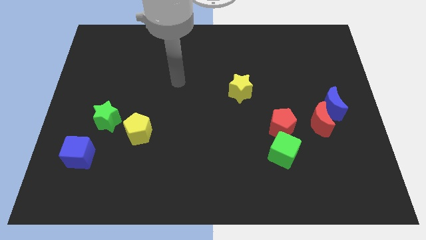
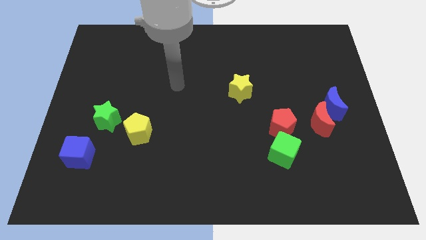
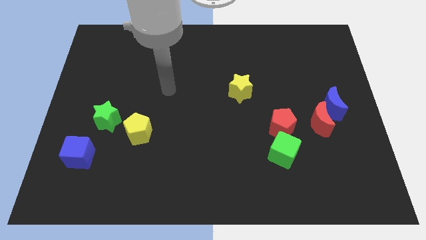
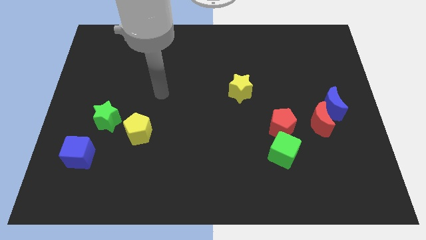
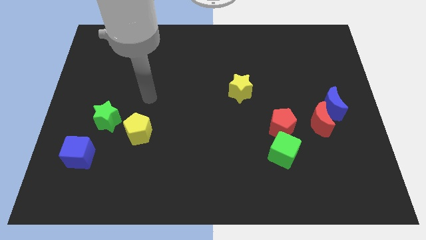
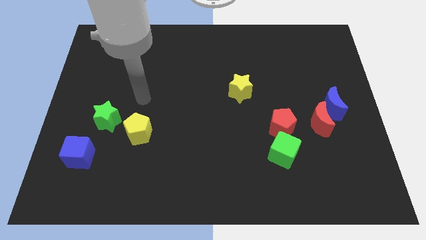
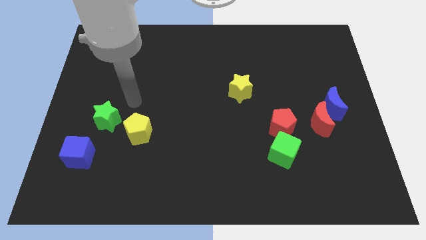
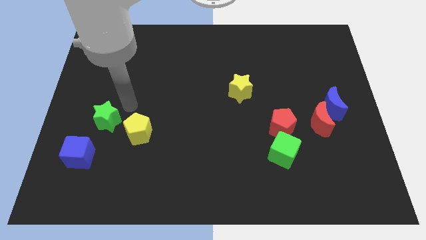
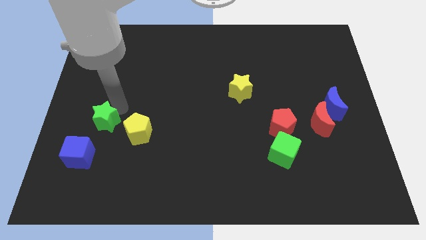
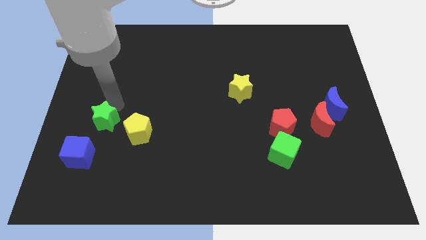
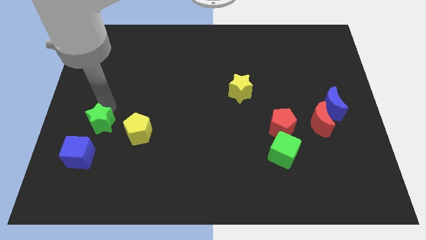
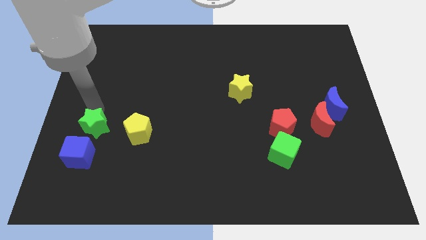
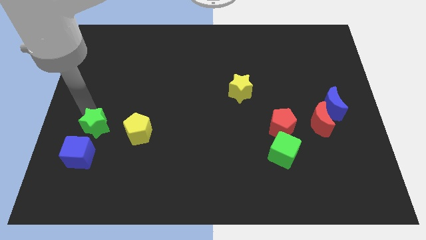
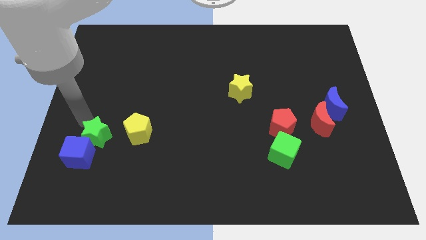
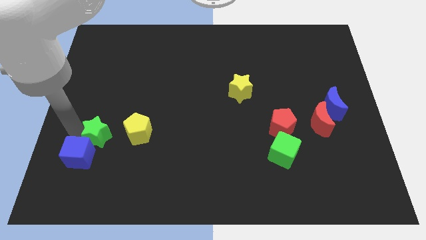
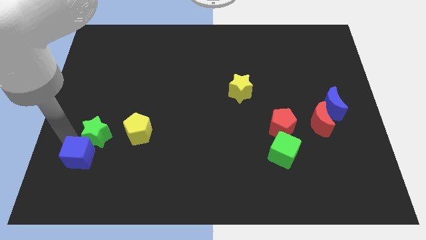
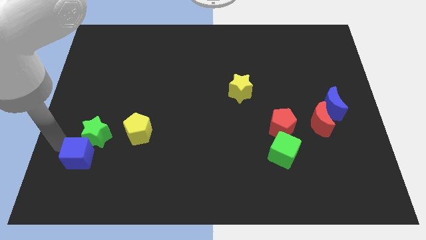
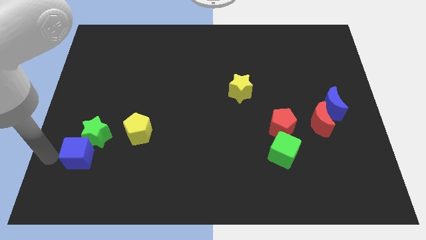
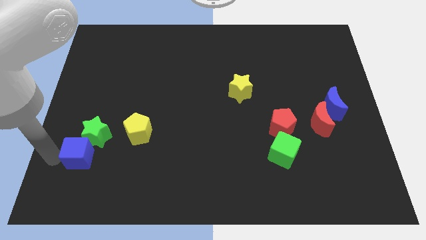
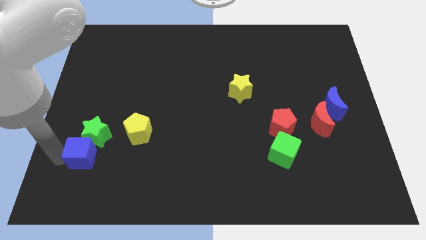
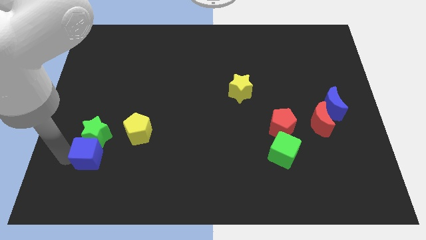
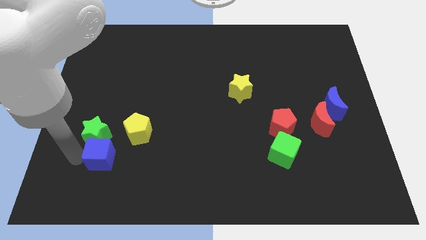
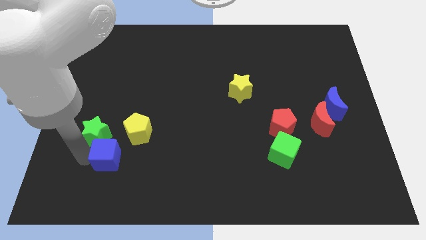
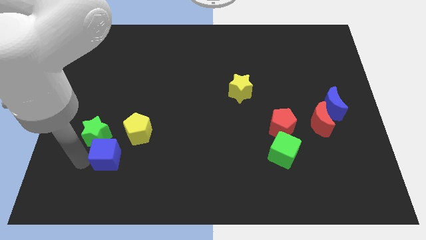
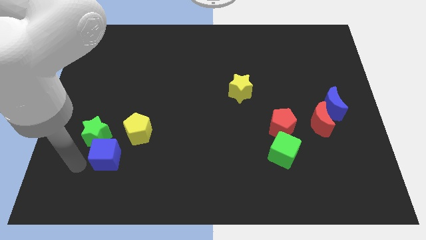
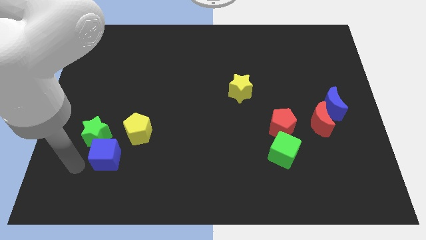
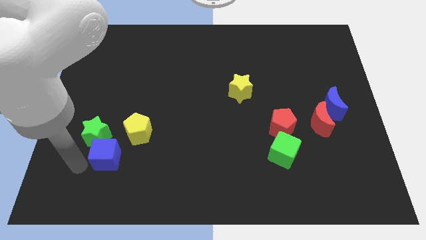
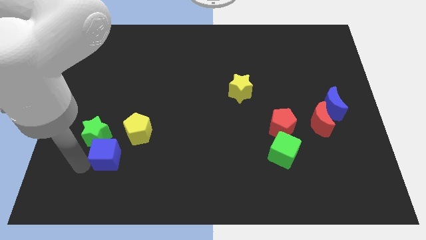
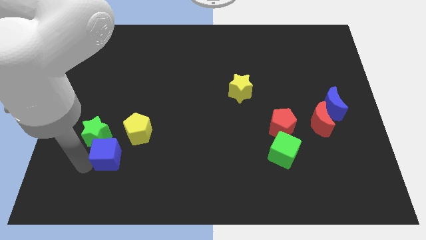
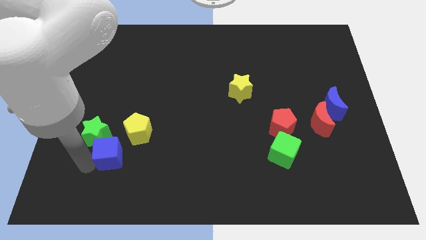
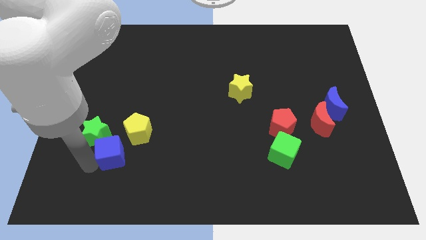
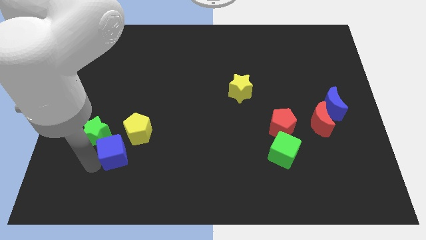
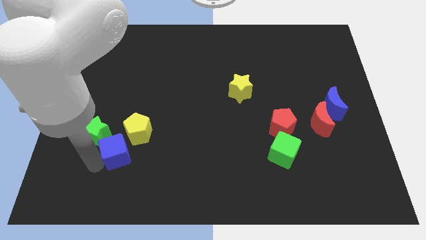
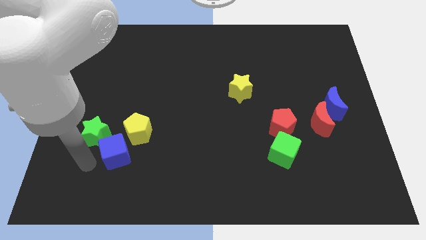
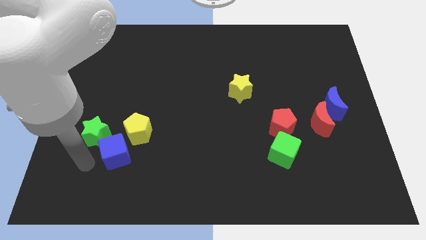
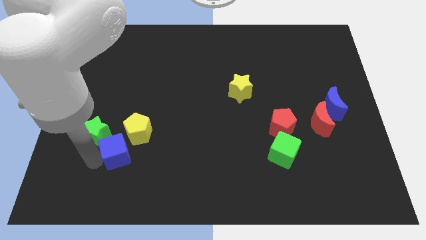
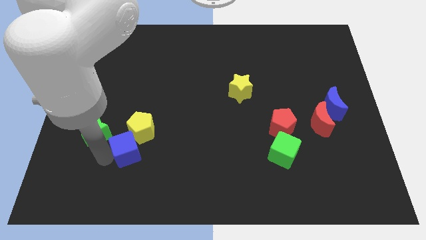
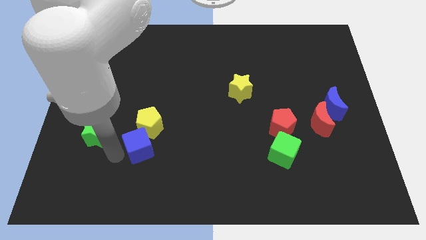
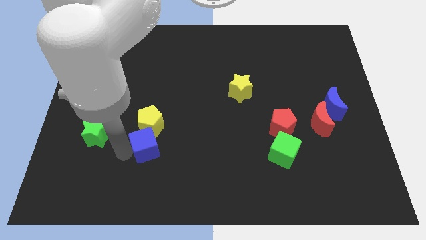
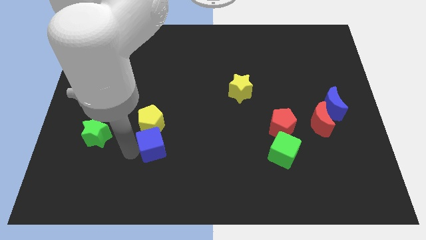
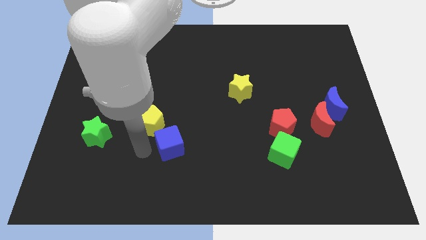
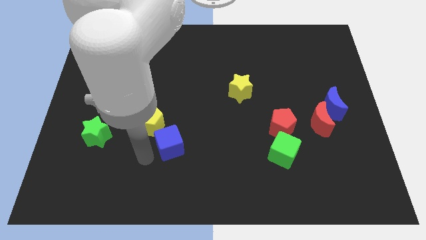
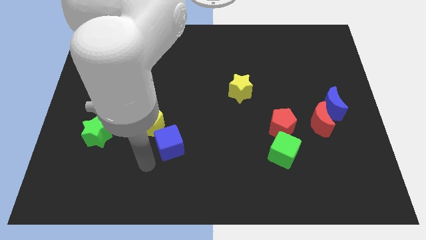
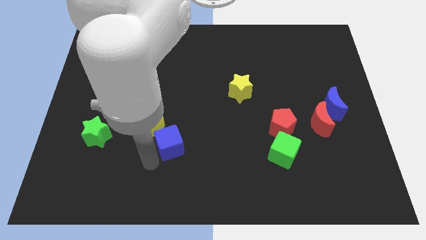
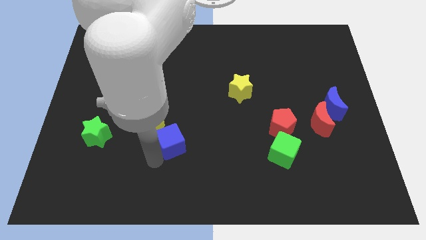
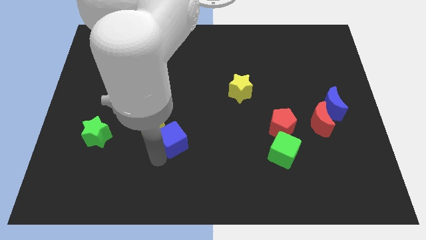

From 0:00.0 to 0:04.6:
slide the blue cube to the right of the yellow pentagon

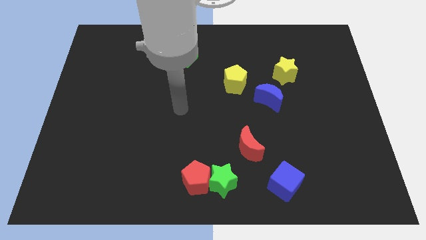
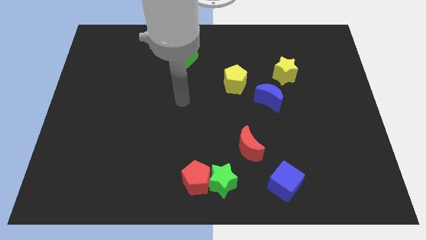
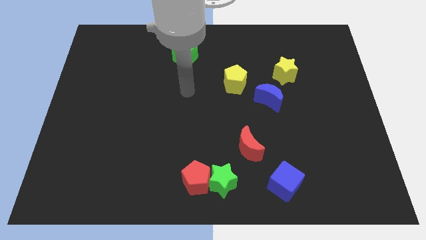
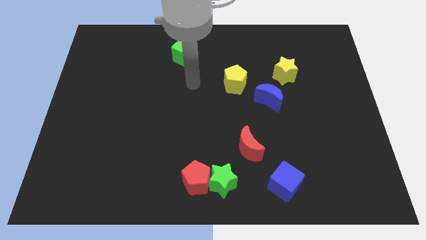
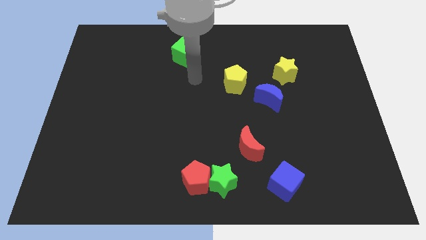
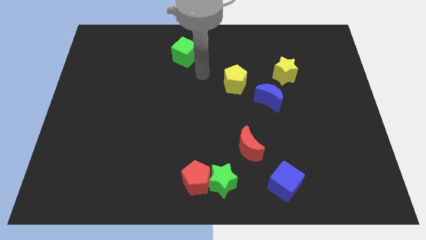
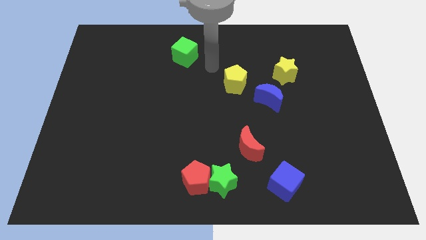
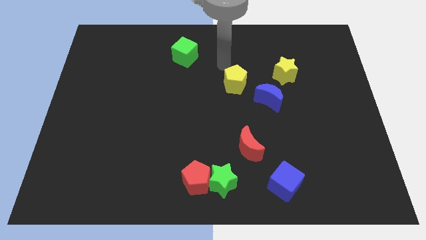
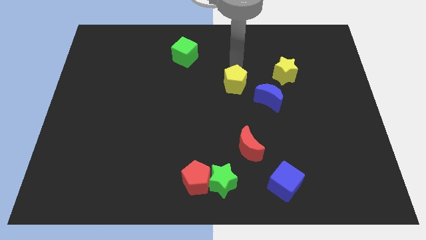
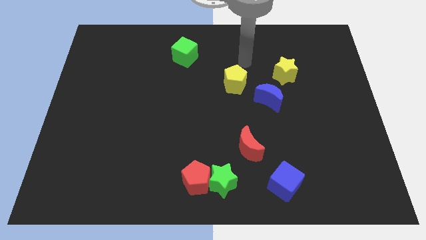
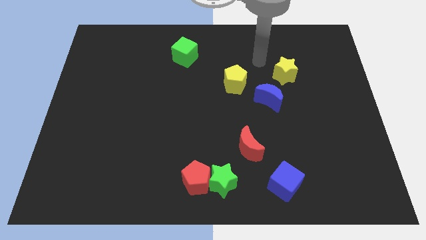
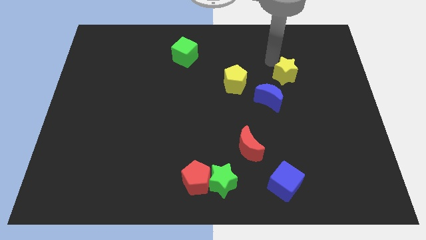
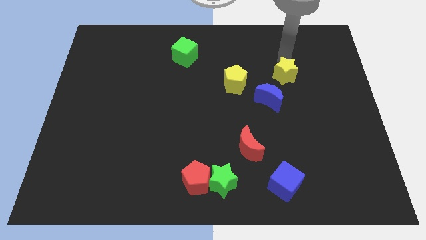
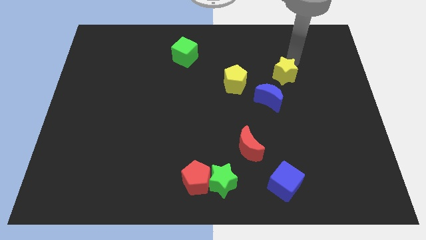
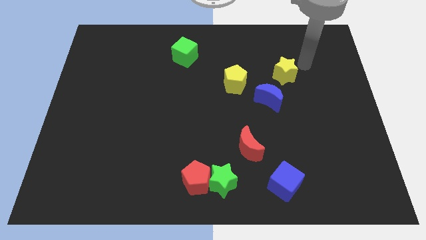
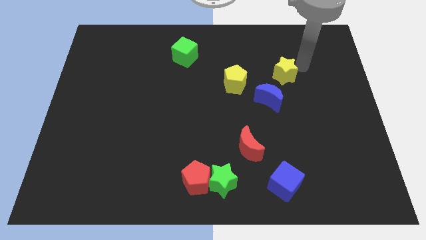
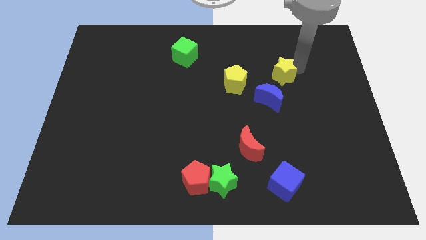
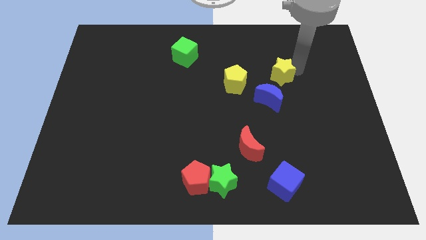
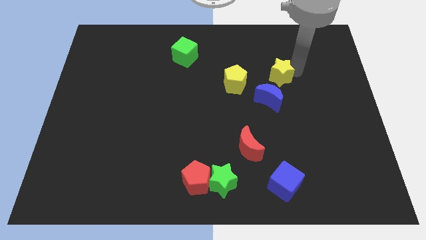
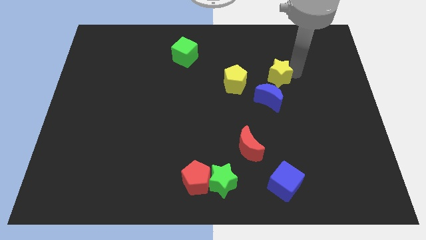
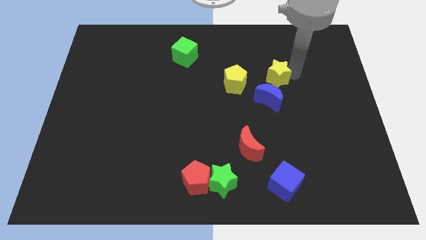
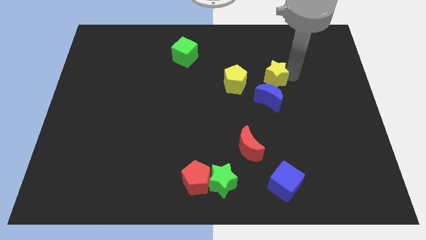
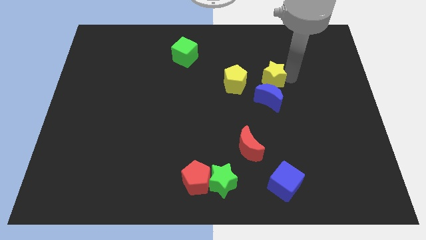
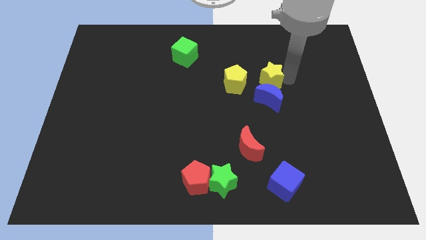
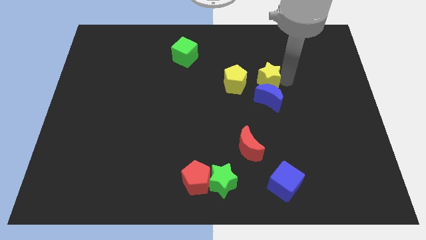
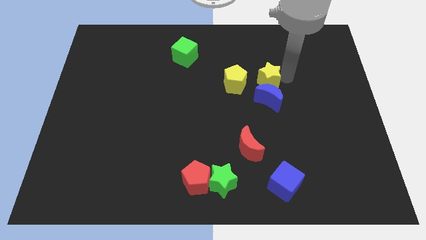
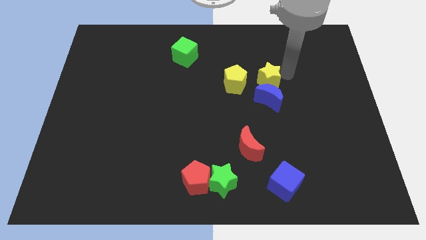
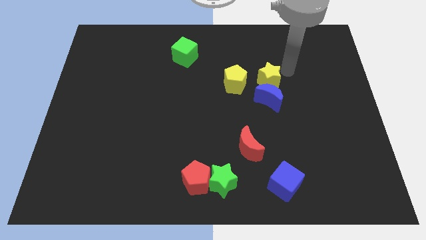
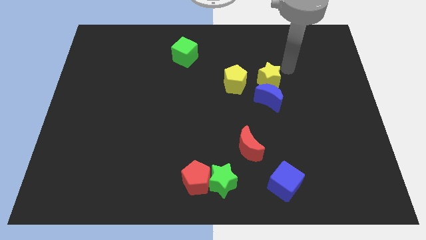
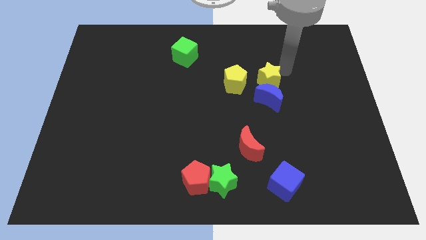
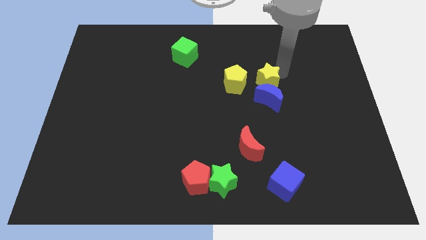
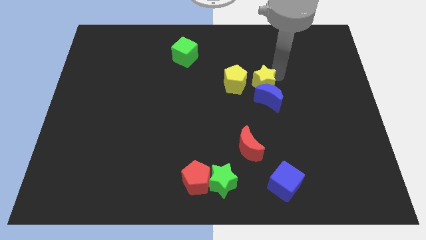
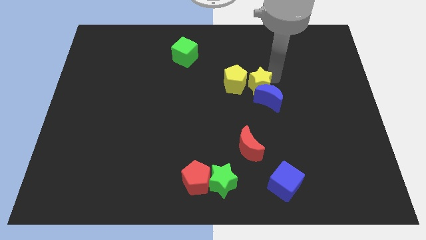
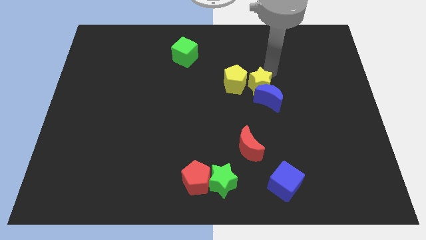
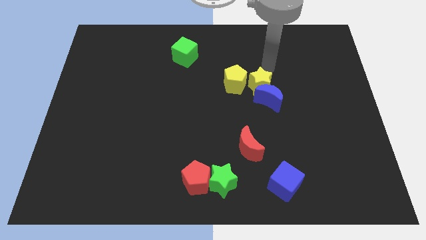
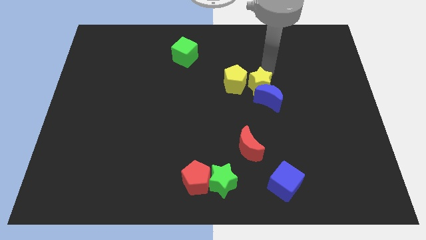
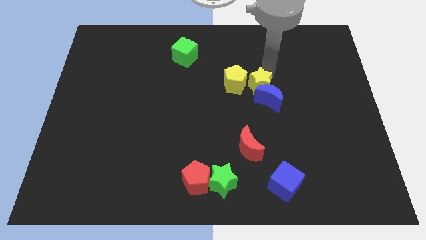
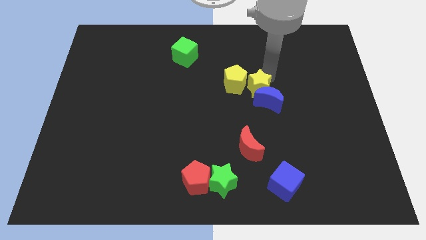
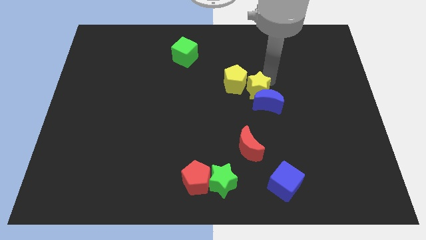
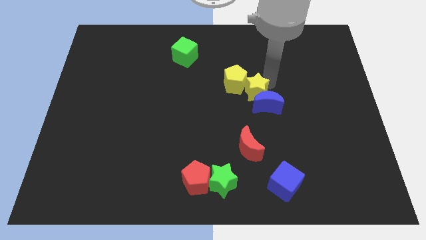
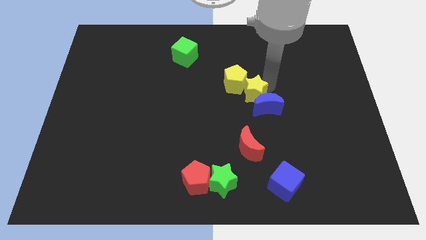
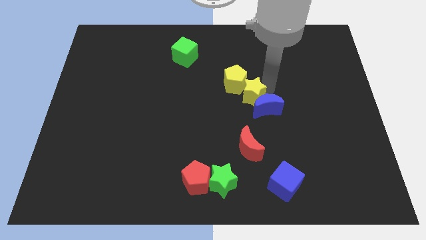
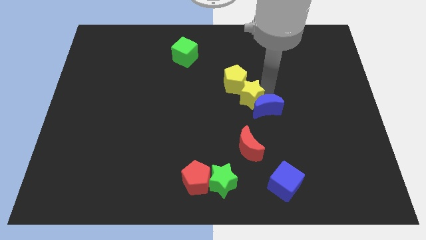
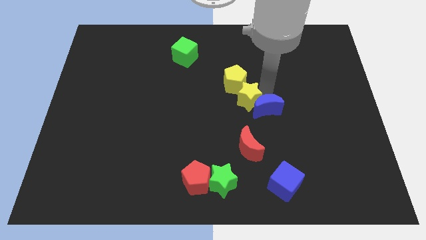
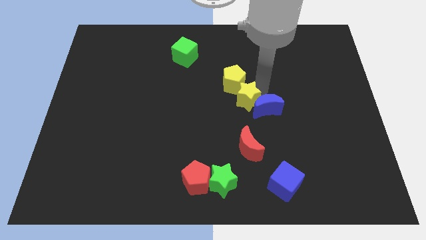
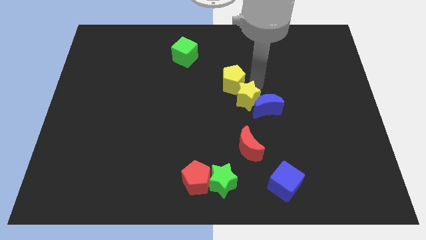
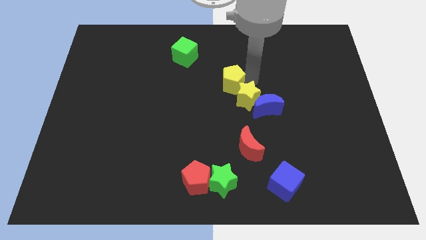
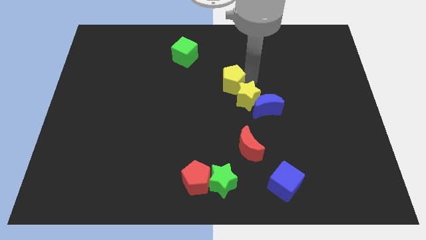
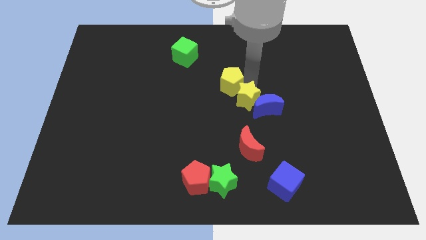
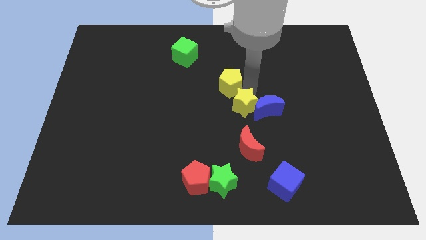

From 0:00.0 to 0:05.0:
push the yellow star to the bottom left of the blue moon
